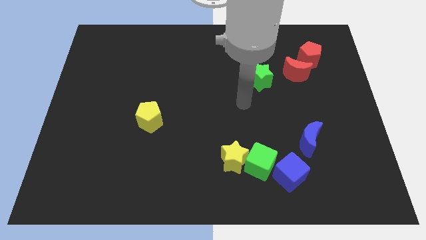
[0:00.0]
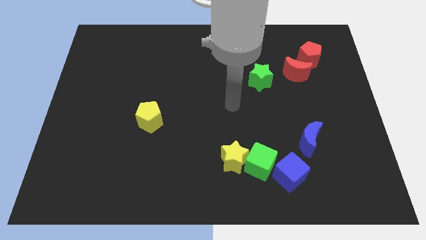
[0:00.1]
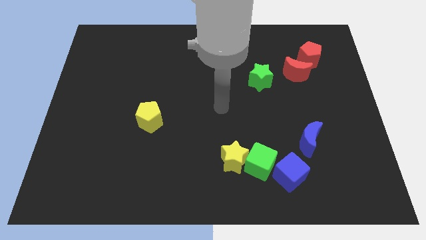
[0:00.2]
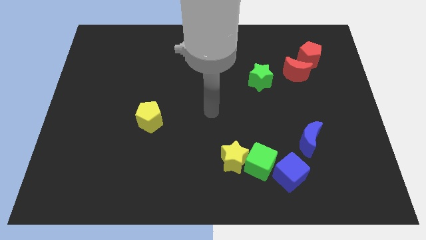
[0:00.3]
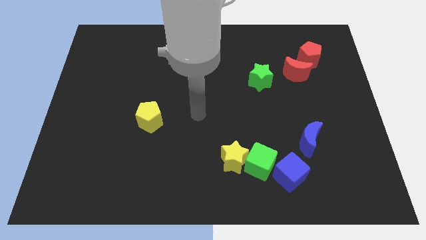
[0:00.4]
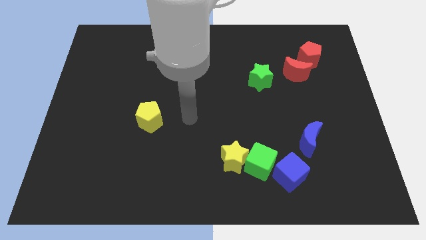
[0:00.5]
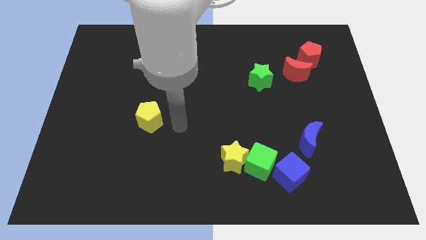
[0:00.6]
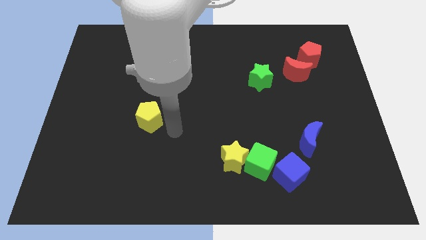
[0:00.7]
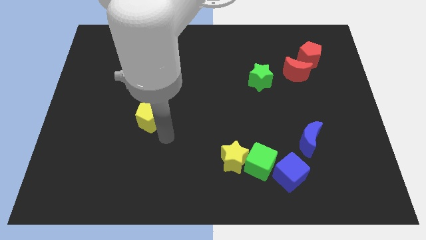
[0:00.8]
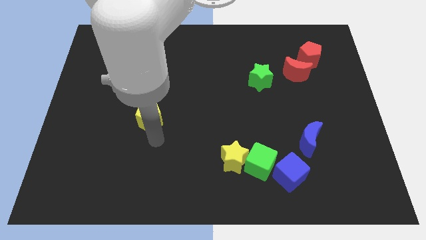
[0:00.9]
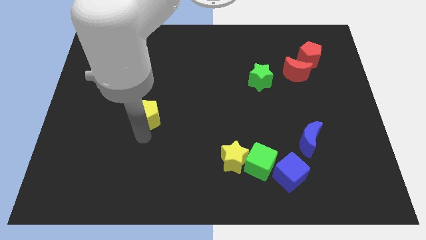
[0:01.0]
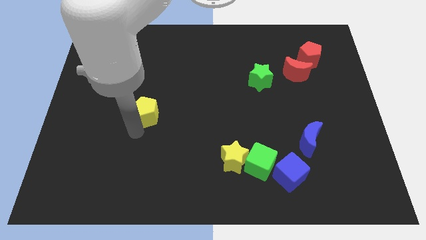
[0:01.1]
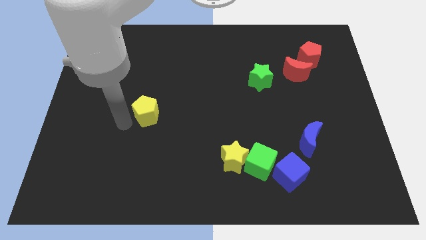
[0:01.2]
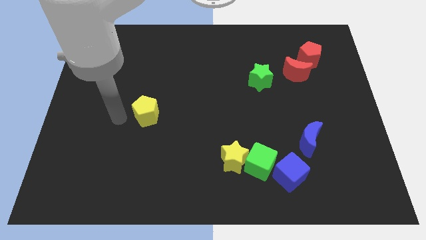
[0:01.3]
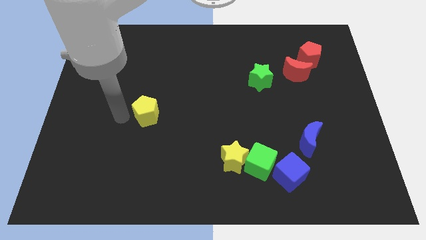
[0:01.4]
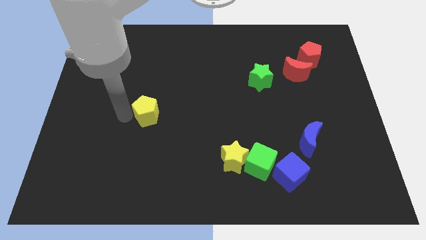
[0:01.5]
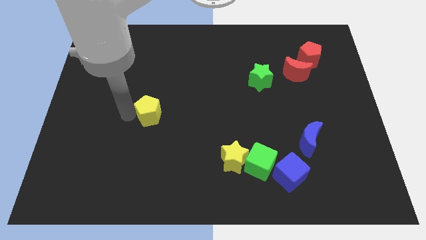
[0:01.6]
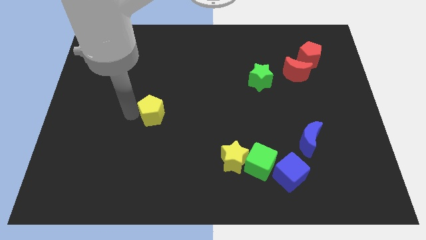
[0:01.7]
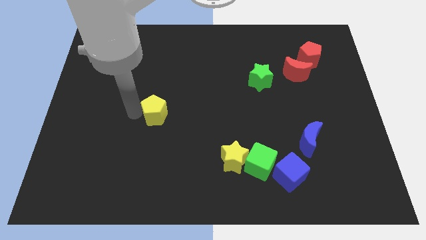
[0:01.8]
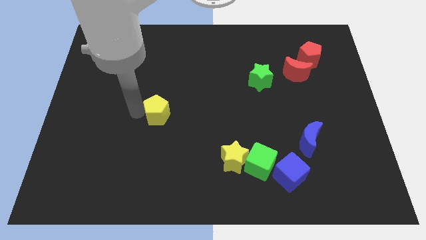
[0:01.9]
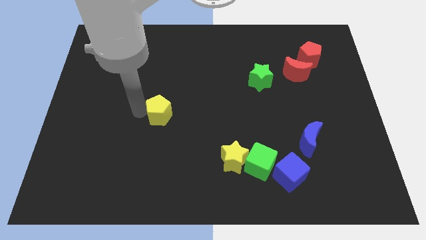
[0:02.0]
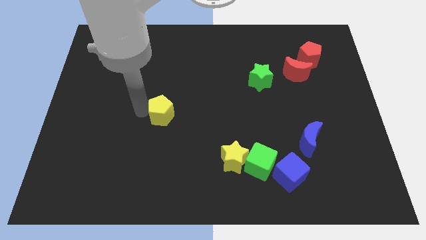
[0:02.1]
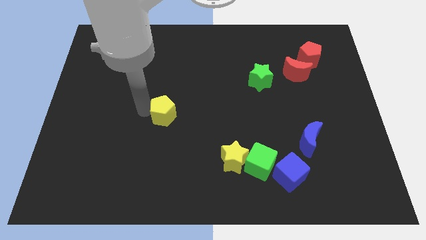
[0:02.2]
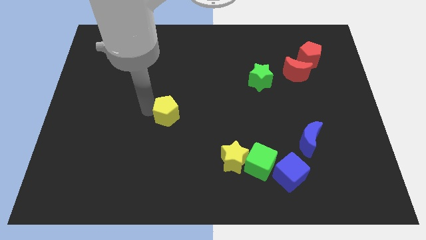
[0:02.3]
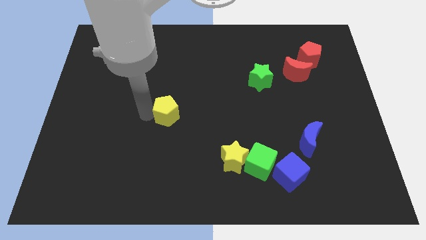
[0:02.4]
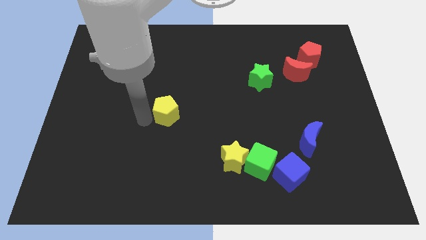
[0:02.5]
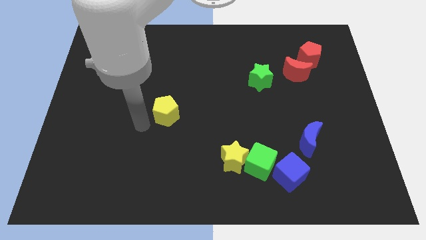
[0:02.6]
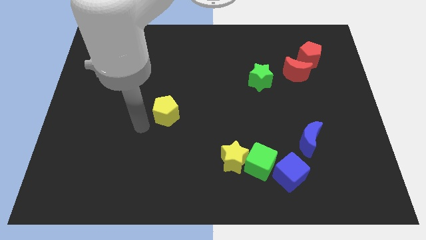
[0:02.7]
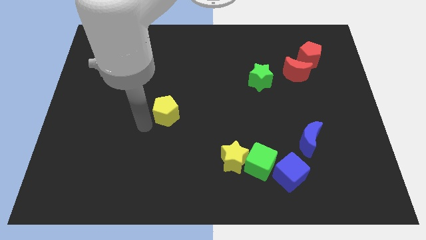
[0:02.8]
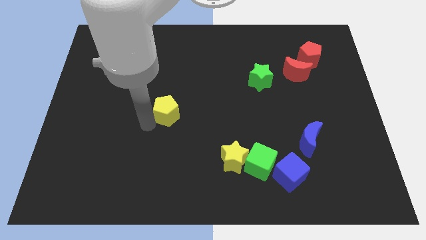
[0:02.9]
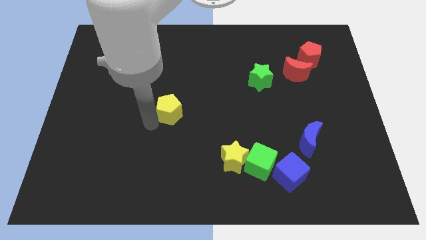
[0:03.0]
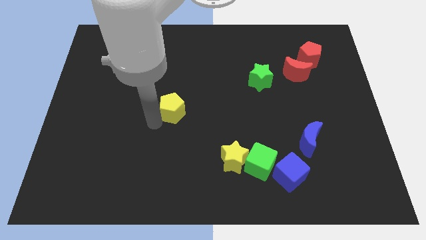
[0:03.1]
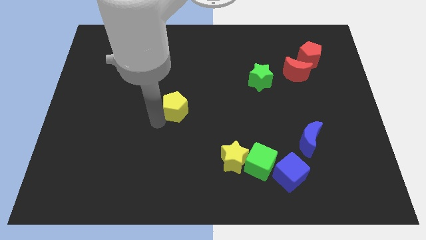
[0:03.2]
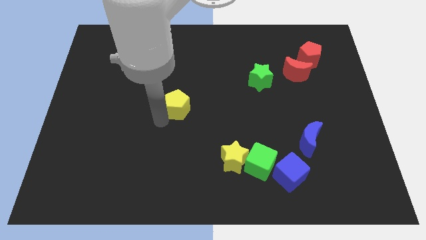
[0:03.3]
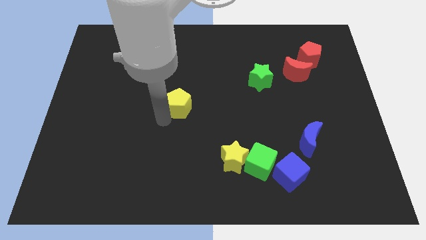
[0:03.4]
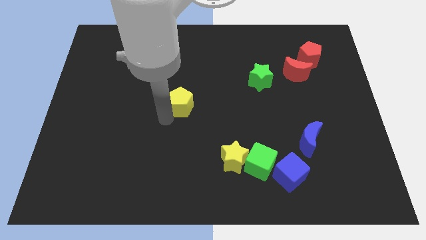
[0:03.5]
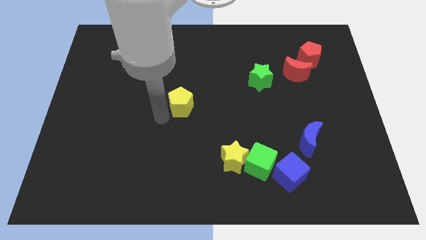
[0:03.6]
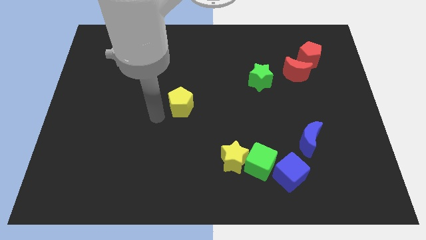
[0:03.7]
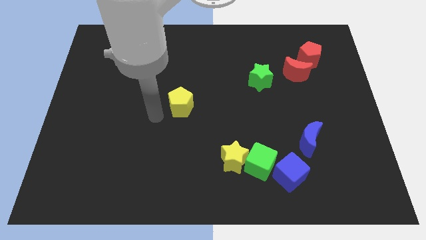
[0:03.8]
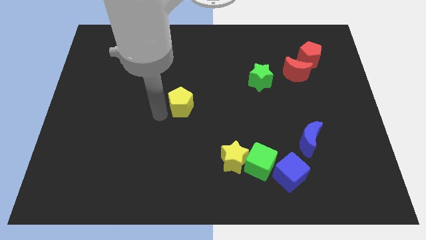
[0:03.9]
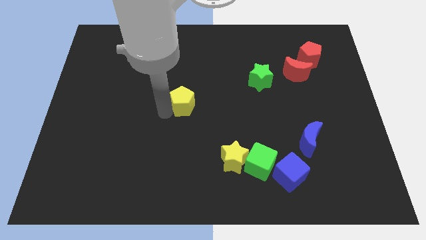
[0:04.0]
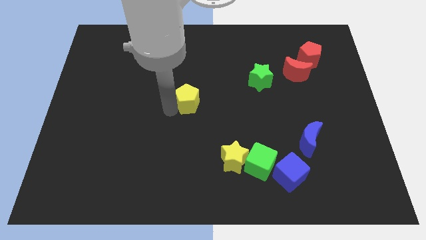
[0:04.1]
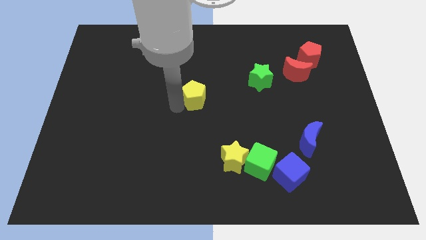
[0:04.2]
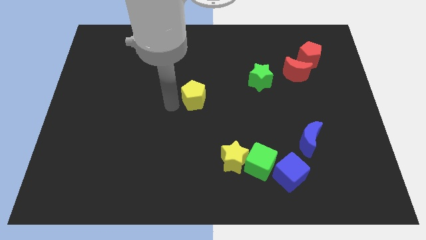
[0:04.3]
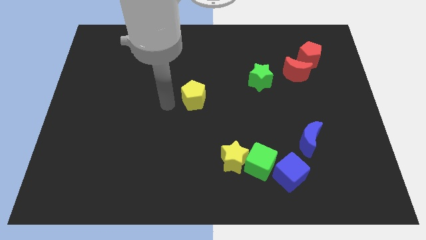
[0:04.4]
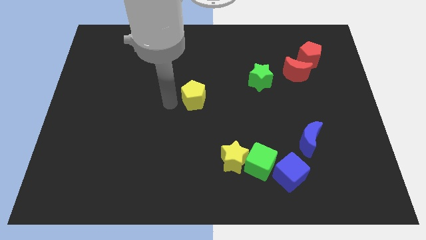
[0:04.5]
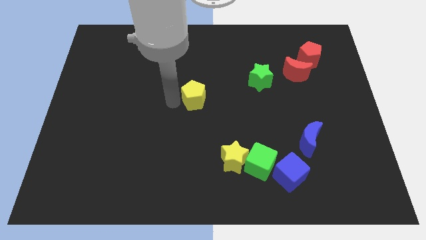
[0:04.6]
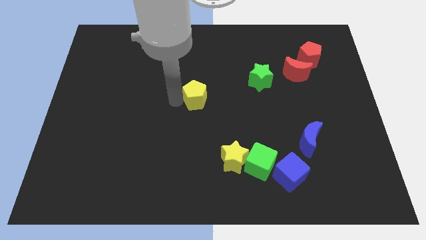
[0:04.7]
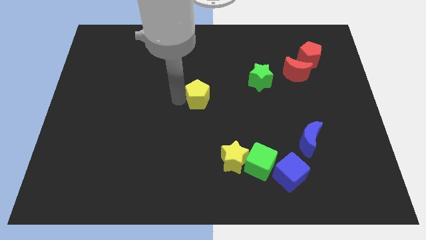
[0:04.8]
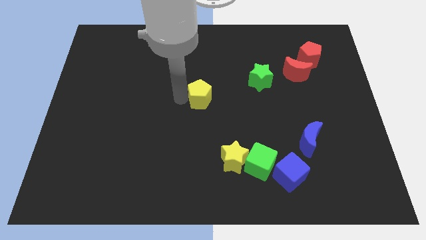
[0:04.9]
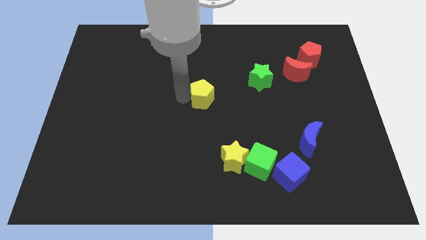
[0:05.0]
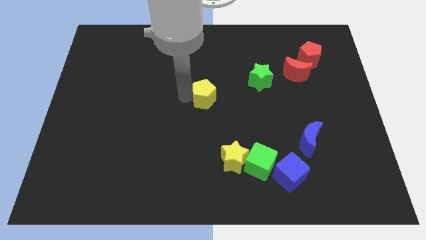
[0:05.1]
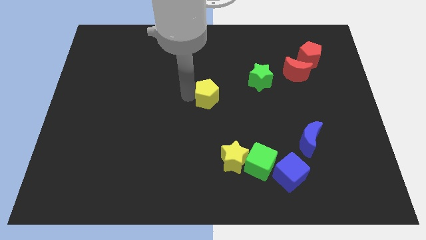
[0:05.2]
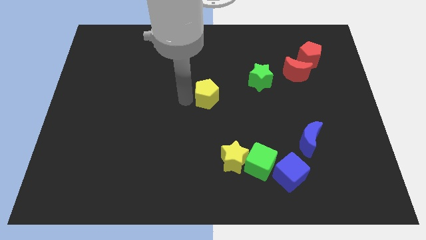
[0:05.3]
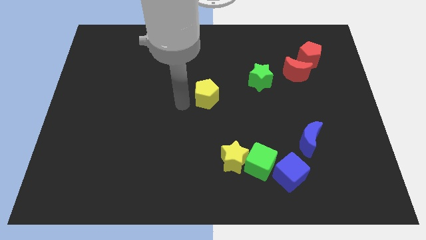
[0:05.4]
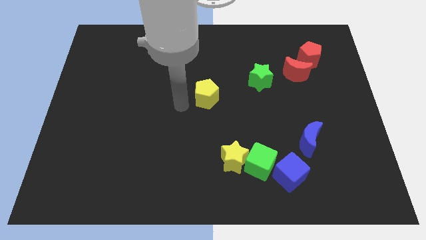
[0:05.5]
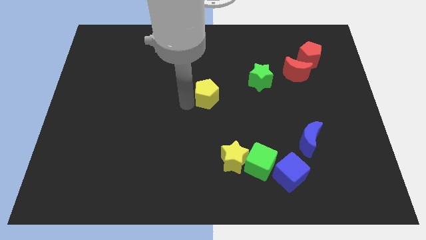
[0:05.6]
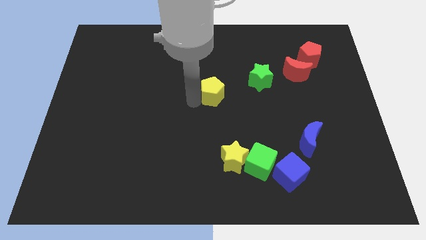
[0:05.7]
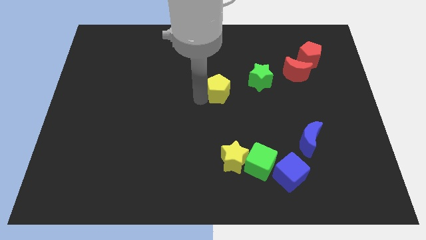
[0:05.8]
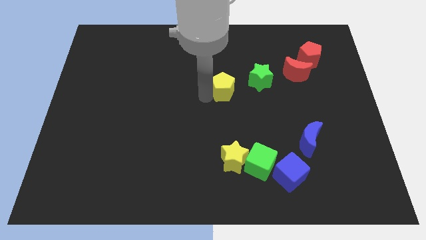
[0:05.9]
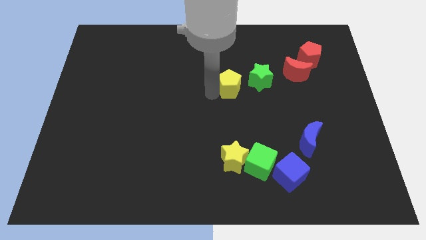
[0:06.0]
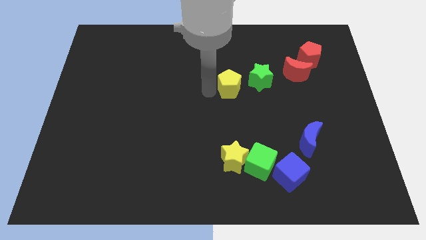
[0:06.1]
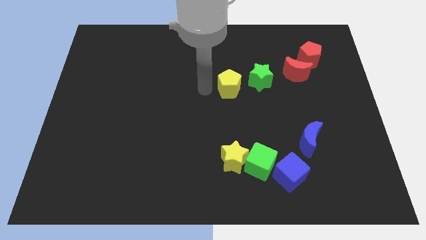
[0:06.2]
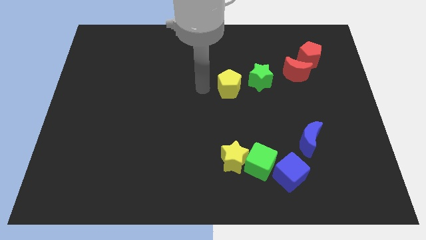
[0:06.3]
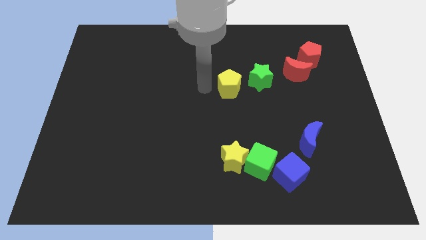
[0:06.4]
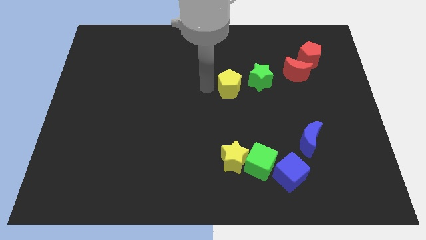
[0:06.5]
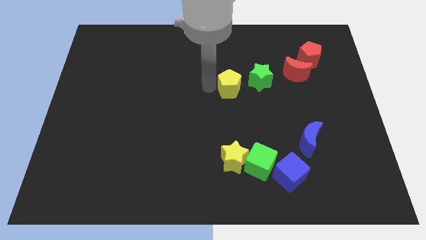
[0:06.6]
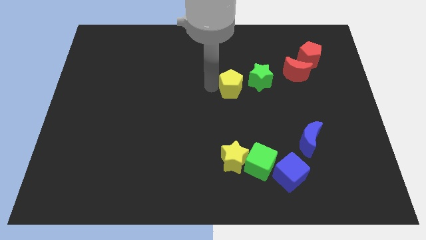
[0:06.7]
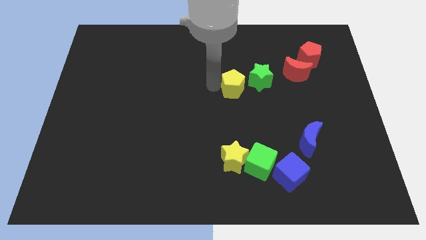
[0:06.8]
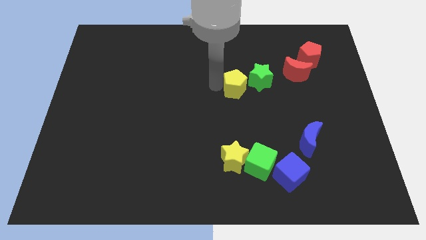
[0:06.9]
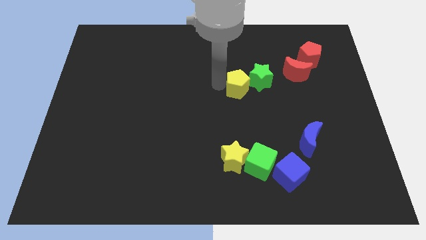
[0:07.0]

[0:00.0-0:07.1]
put the yellow pentagon to the green star

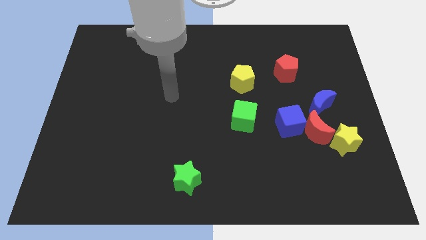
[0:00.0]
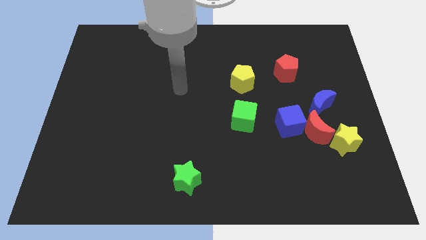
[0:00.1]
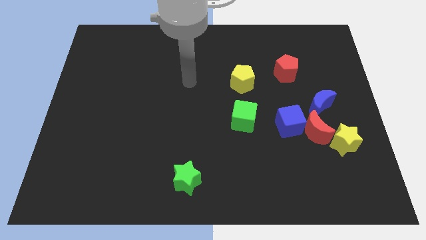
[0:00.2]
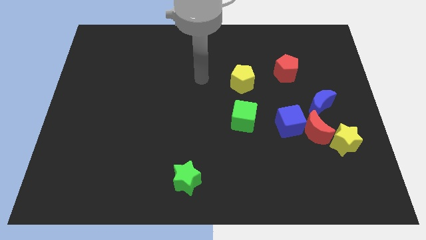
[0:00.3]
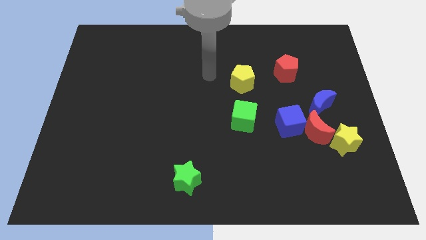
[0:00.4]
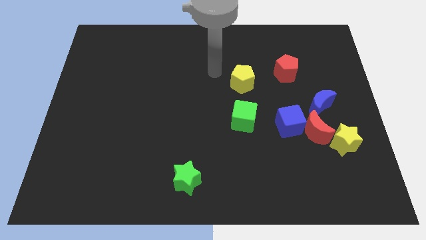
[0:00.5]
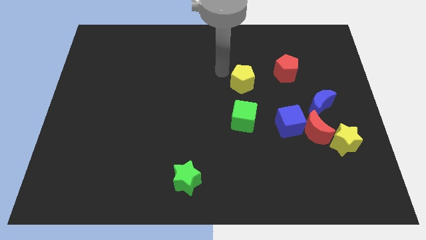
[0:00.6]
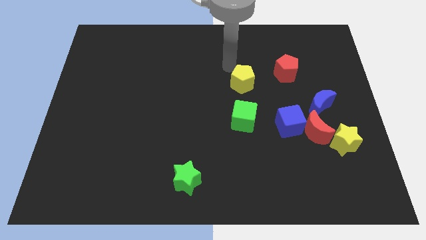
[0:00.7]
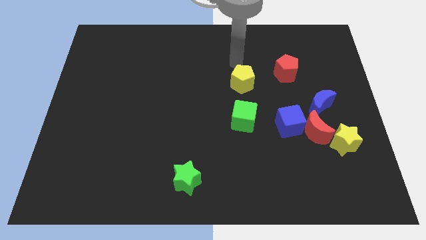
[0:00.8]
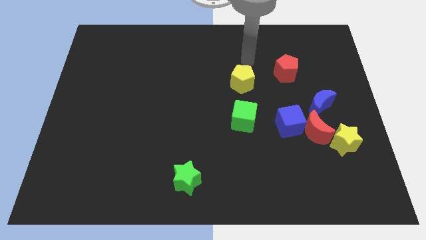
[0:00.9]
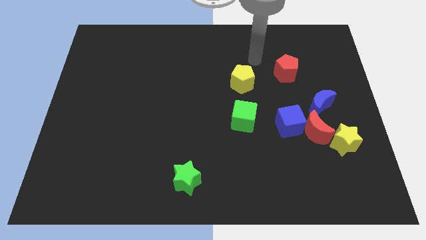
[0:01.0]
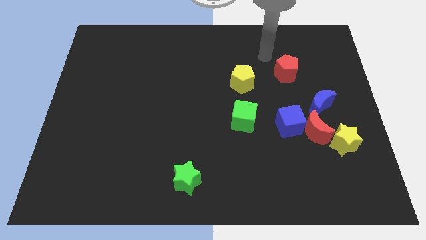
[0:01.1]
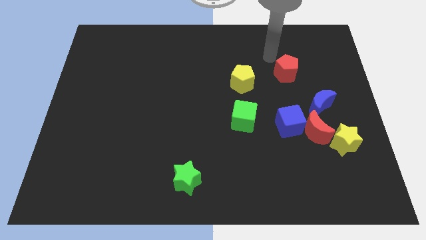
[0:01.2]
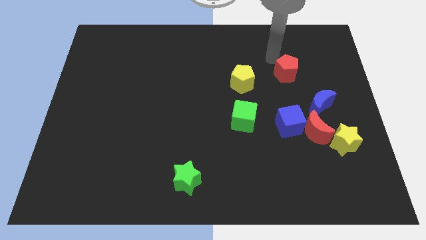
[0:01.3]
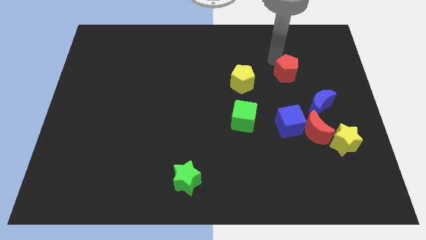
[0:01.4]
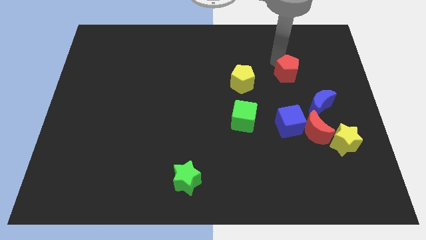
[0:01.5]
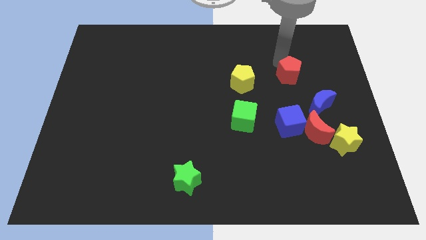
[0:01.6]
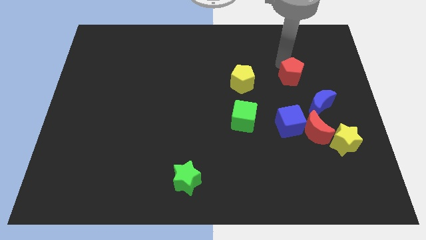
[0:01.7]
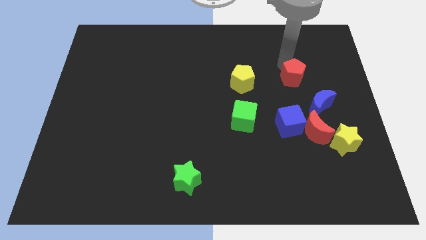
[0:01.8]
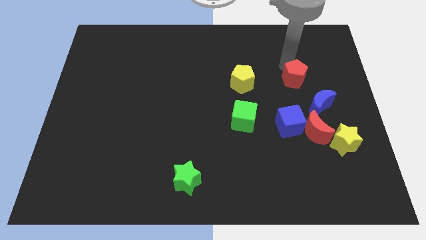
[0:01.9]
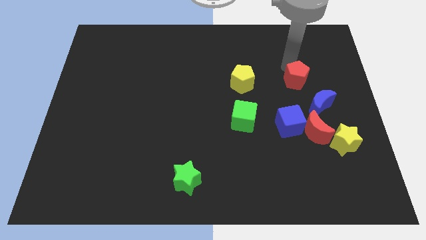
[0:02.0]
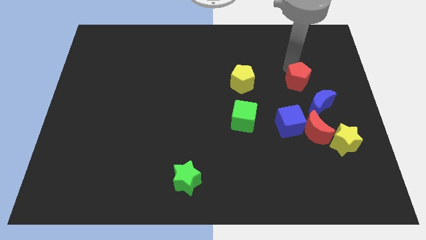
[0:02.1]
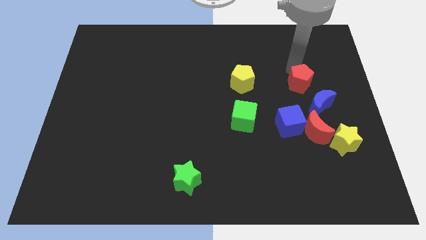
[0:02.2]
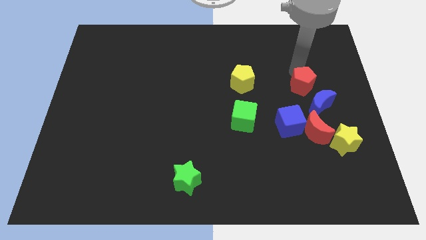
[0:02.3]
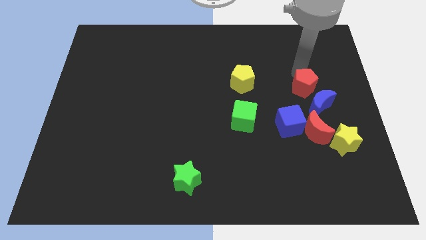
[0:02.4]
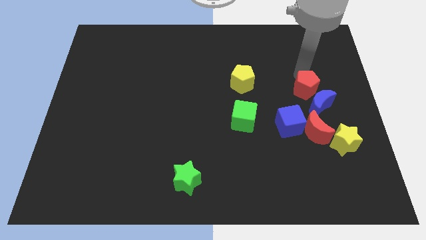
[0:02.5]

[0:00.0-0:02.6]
push the red pentagon to the blue moon
